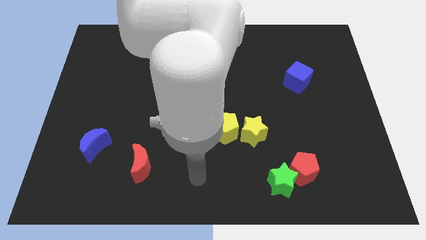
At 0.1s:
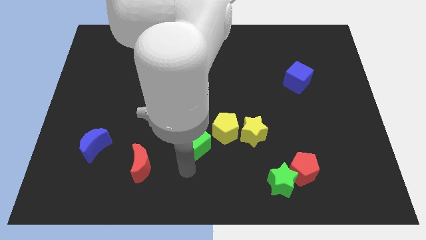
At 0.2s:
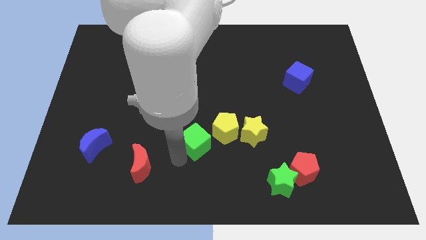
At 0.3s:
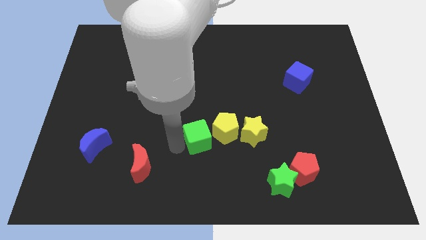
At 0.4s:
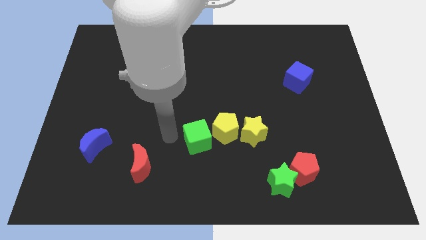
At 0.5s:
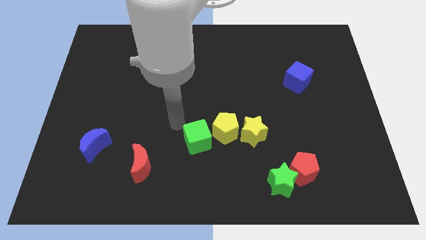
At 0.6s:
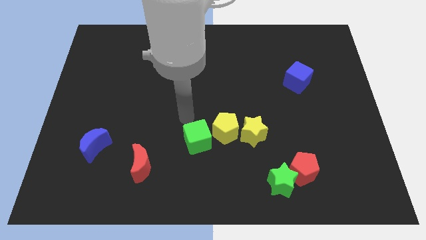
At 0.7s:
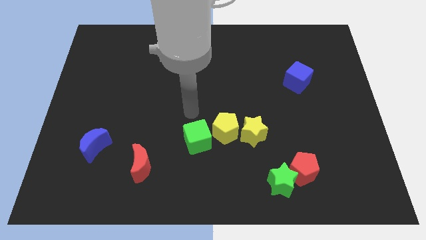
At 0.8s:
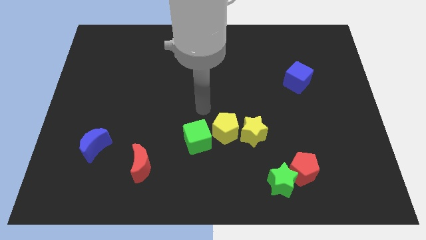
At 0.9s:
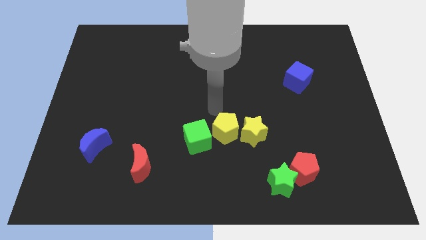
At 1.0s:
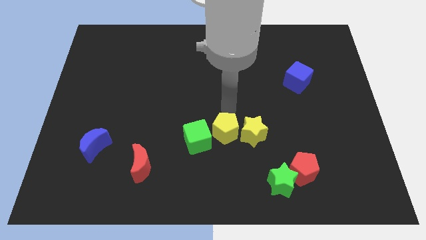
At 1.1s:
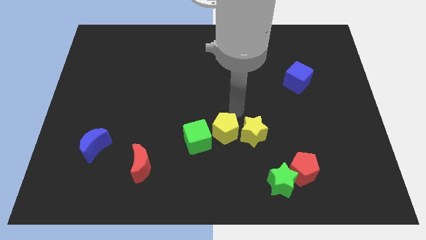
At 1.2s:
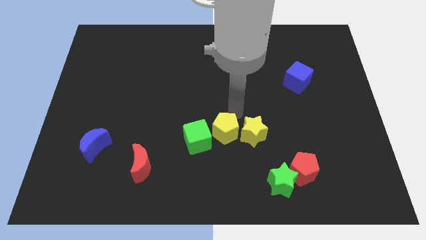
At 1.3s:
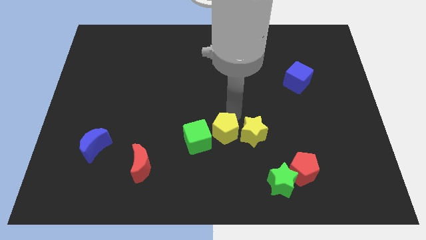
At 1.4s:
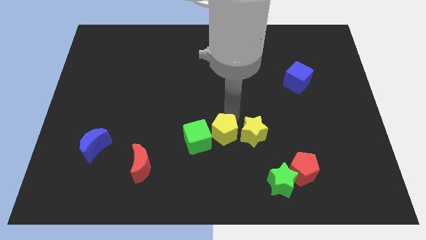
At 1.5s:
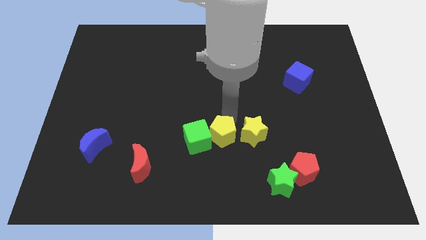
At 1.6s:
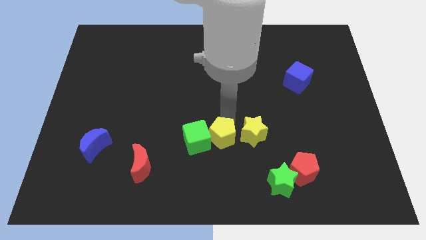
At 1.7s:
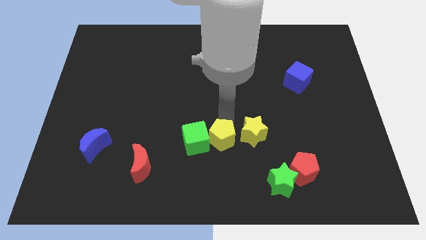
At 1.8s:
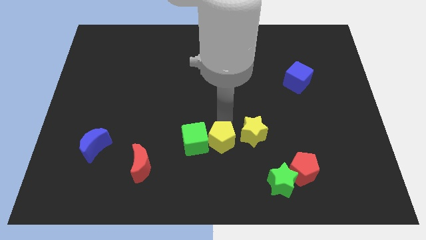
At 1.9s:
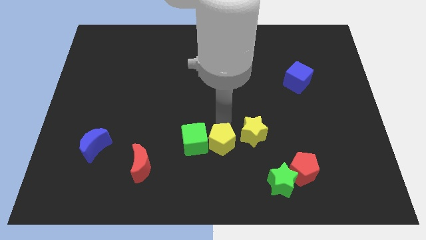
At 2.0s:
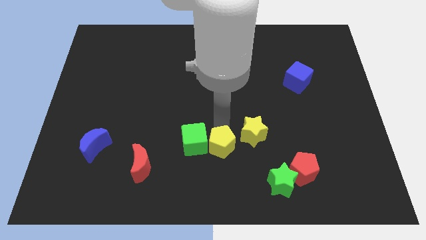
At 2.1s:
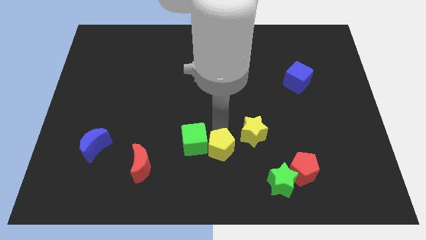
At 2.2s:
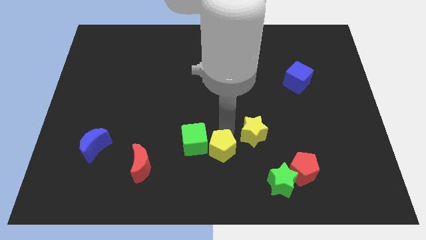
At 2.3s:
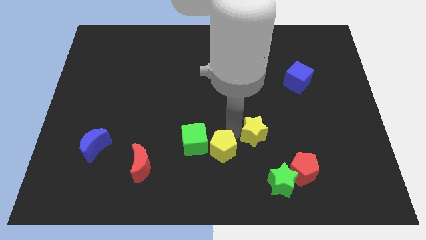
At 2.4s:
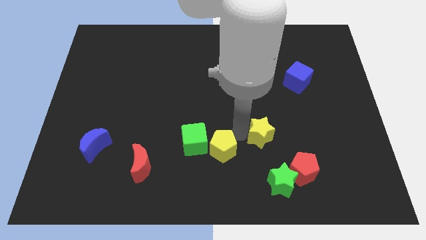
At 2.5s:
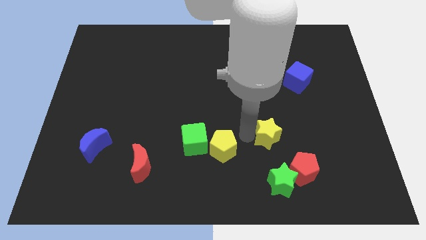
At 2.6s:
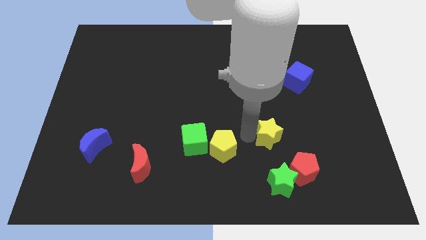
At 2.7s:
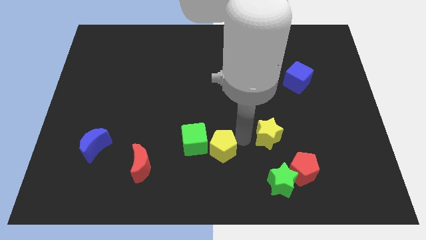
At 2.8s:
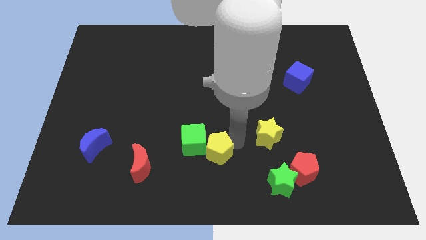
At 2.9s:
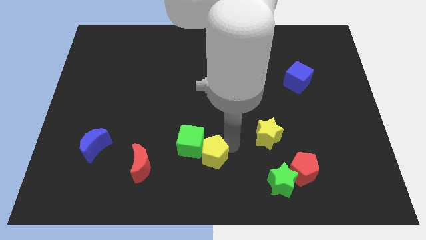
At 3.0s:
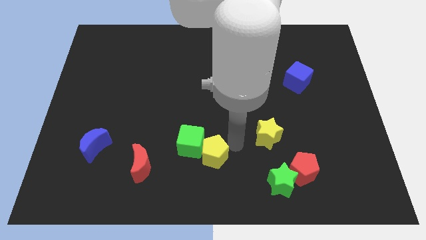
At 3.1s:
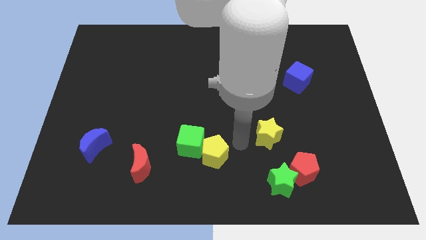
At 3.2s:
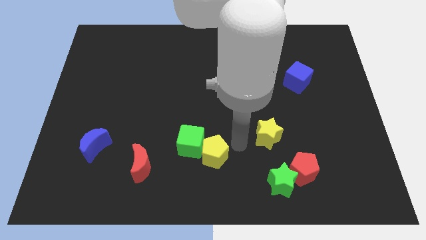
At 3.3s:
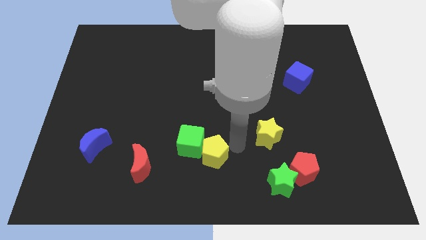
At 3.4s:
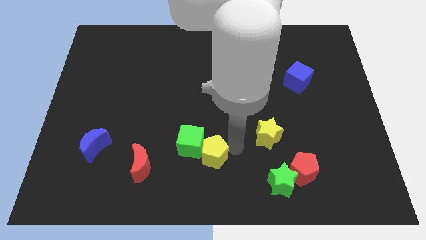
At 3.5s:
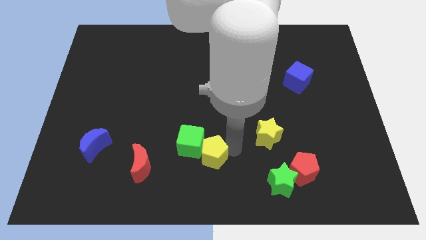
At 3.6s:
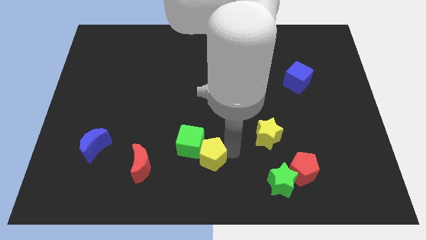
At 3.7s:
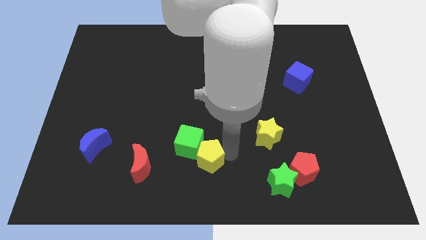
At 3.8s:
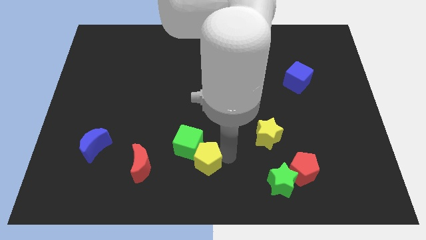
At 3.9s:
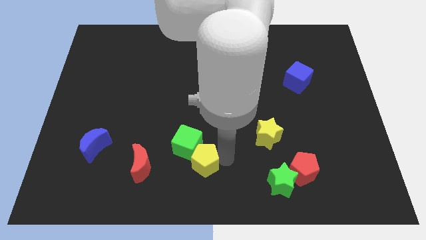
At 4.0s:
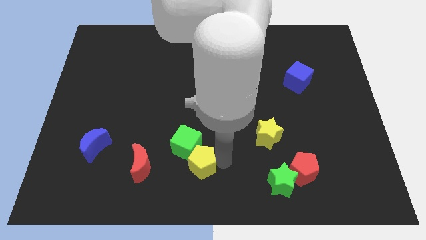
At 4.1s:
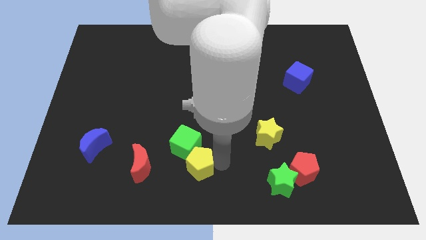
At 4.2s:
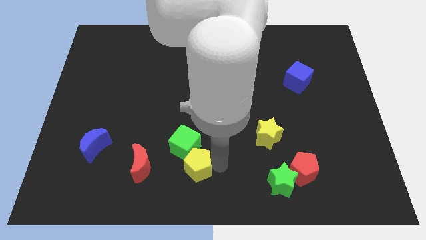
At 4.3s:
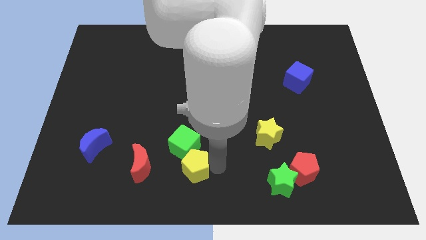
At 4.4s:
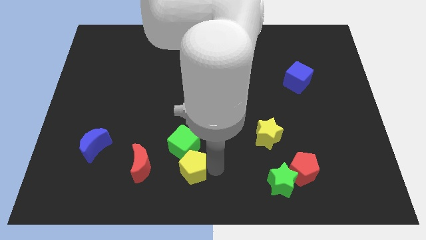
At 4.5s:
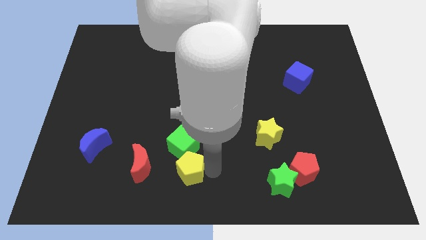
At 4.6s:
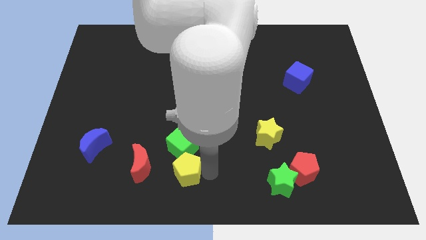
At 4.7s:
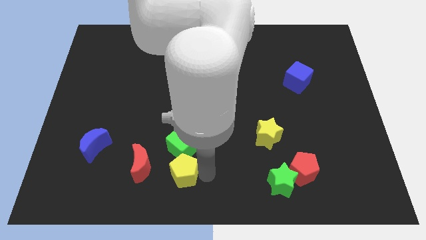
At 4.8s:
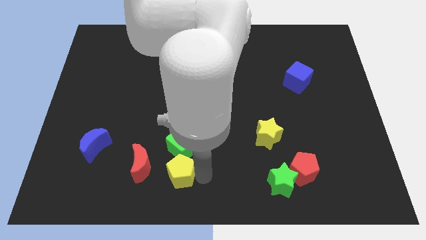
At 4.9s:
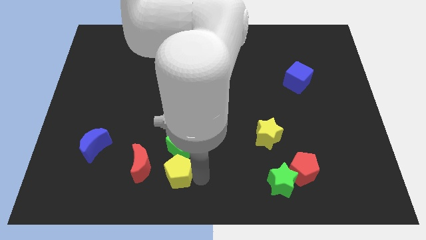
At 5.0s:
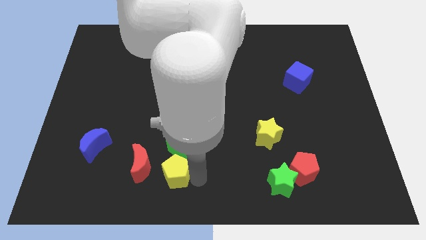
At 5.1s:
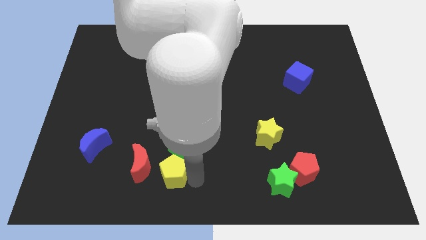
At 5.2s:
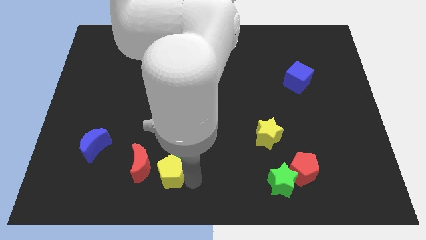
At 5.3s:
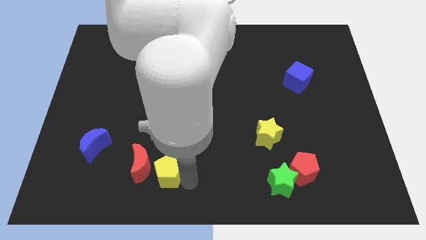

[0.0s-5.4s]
move the yellow pentagon towards the red moon

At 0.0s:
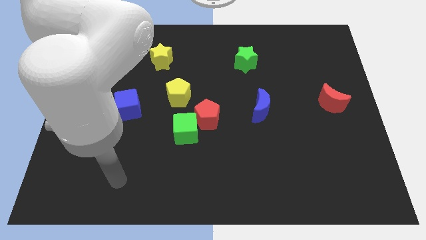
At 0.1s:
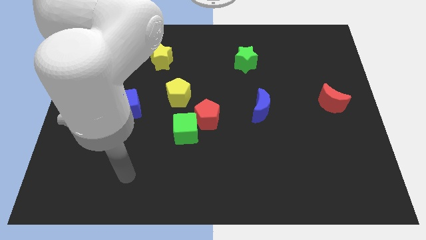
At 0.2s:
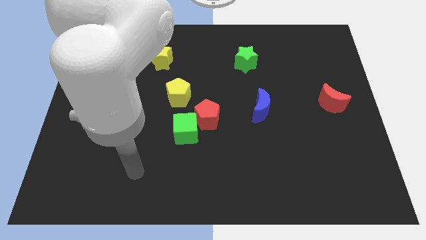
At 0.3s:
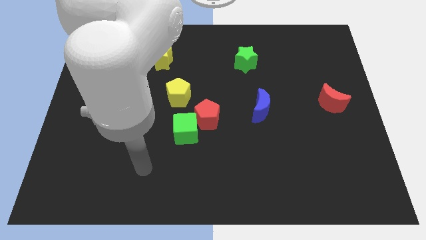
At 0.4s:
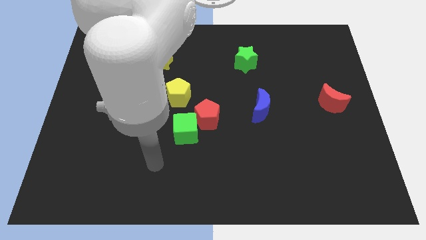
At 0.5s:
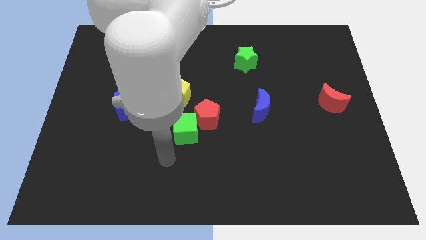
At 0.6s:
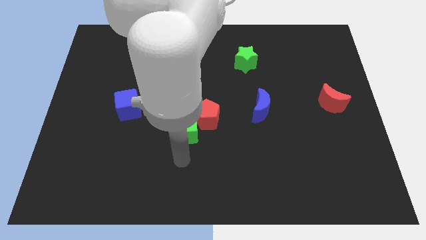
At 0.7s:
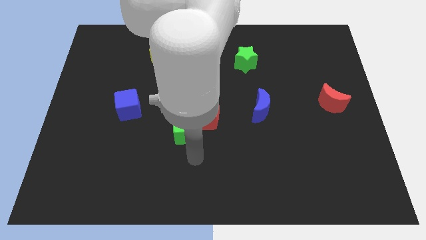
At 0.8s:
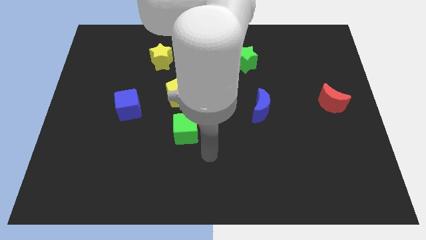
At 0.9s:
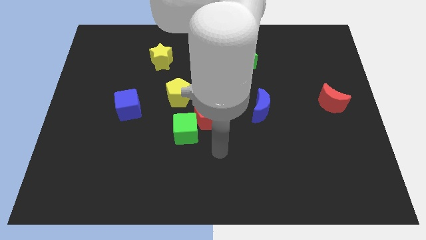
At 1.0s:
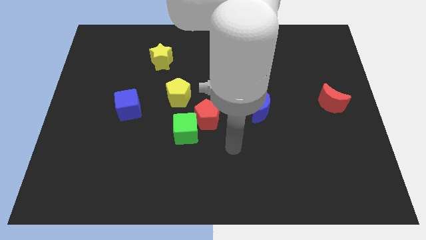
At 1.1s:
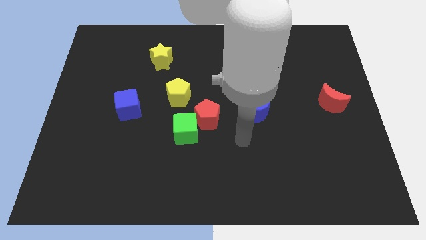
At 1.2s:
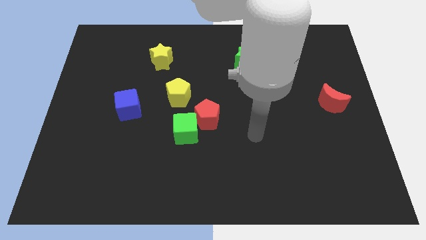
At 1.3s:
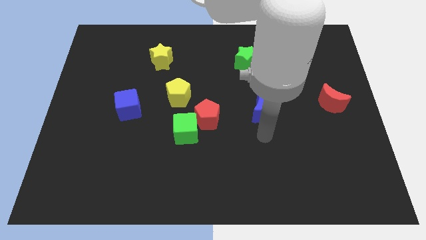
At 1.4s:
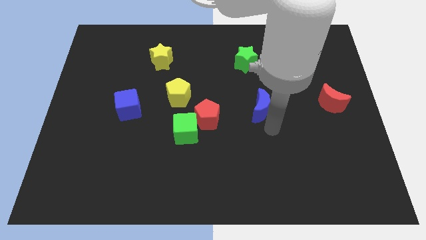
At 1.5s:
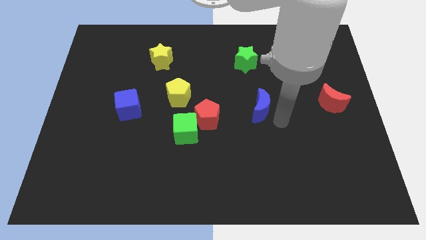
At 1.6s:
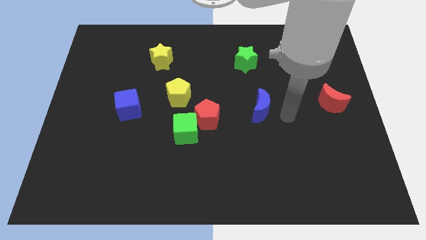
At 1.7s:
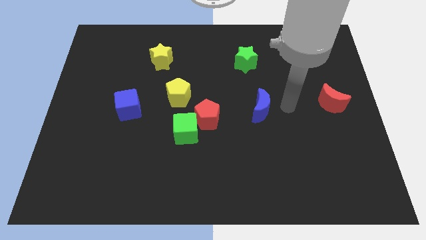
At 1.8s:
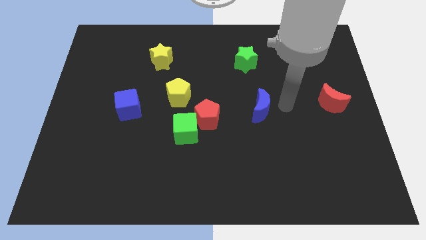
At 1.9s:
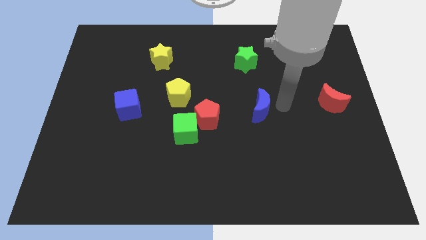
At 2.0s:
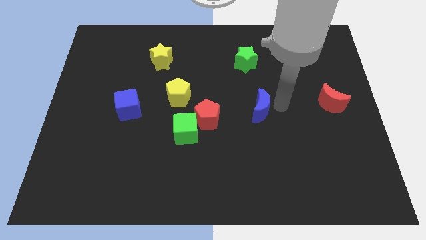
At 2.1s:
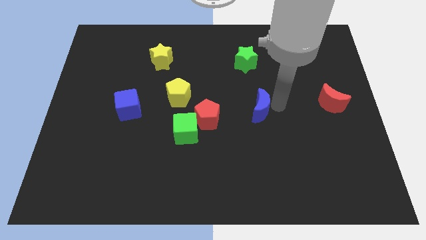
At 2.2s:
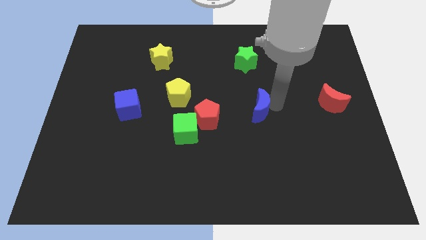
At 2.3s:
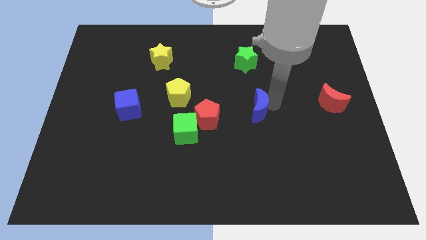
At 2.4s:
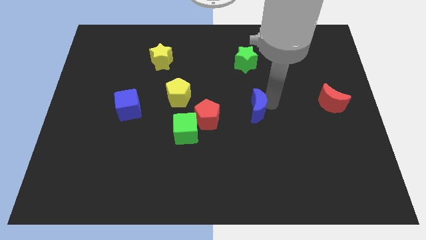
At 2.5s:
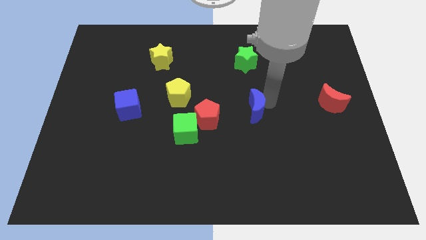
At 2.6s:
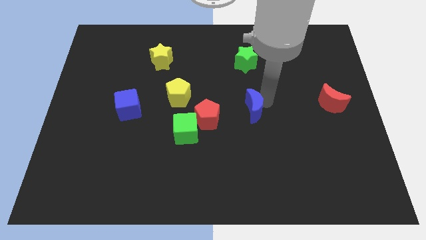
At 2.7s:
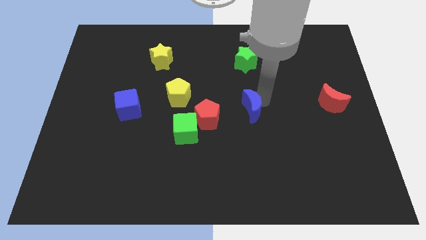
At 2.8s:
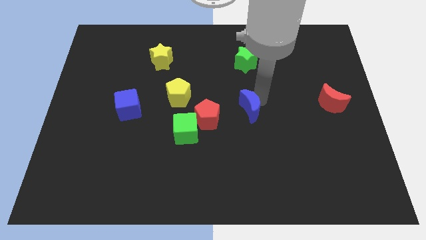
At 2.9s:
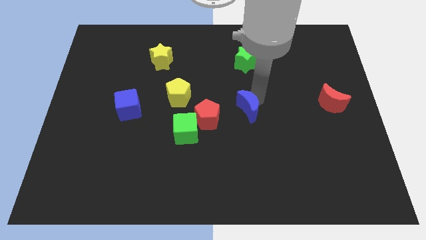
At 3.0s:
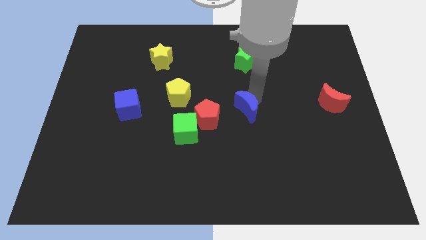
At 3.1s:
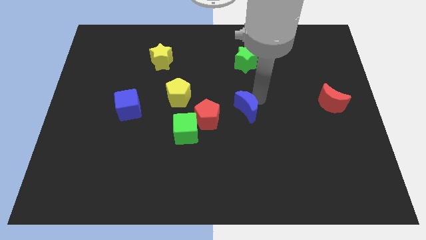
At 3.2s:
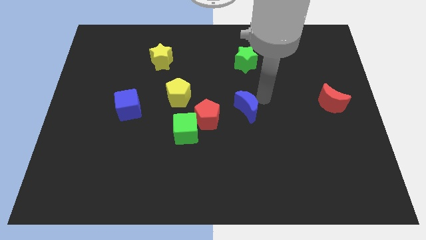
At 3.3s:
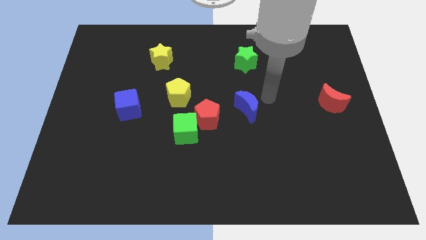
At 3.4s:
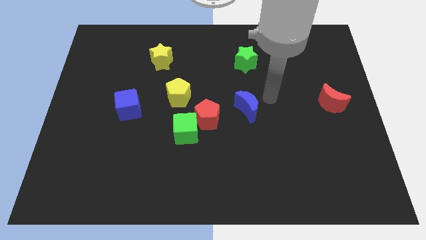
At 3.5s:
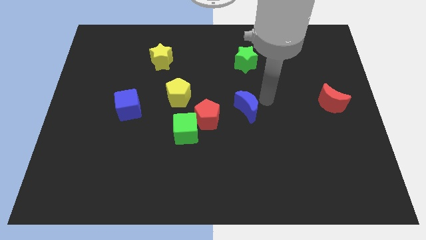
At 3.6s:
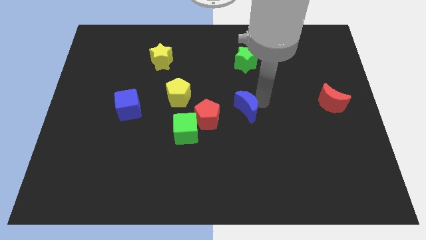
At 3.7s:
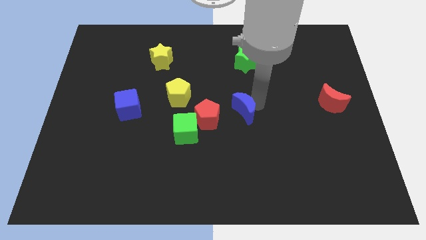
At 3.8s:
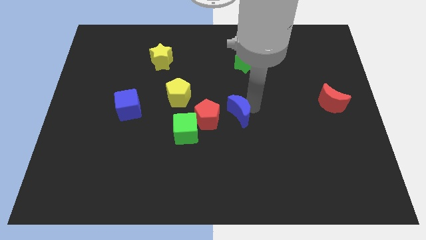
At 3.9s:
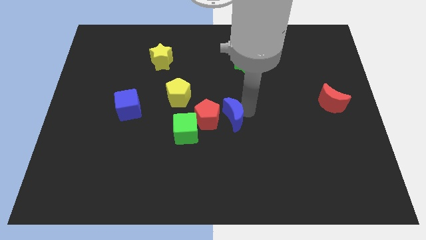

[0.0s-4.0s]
move the blue moon next to the red pentagon
